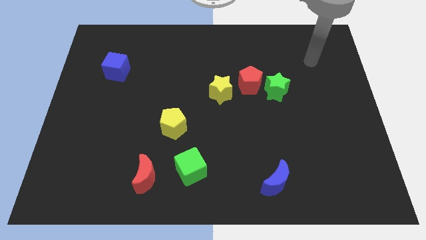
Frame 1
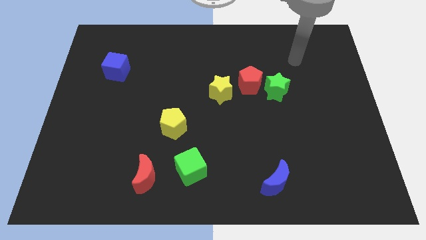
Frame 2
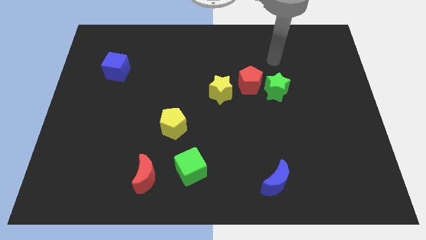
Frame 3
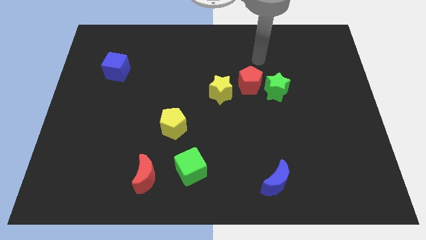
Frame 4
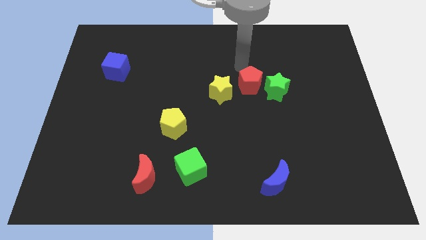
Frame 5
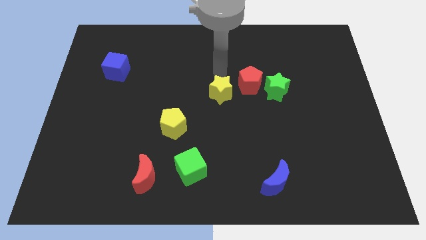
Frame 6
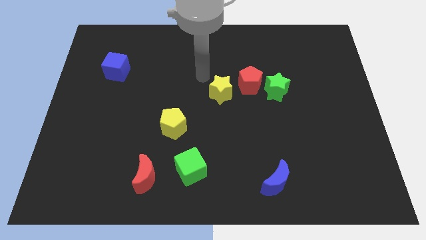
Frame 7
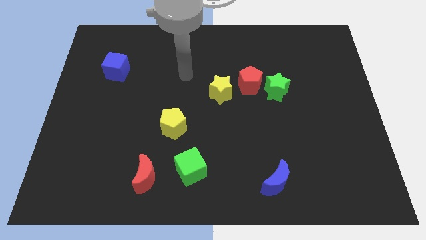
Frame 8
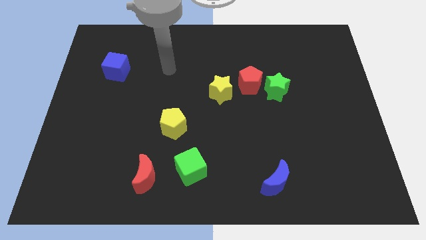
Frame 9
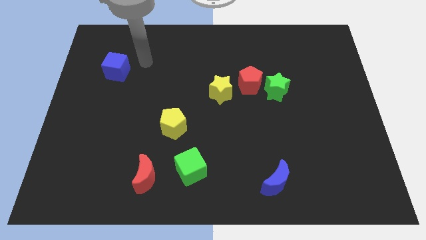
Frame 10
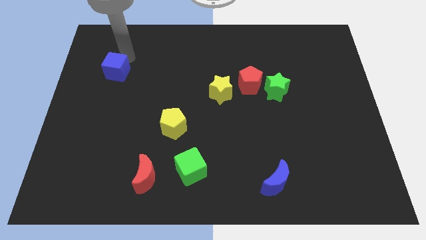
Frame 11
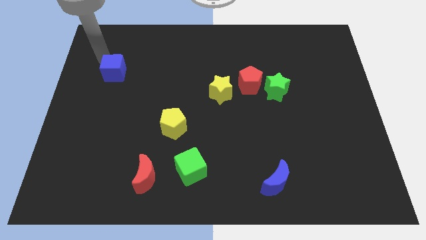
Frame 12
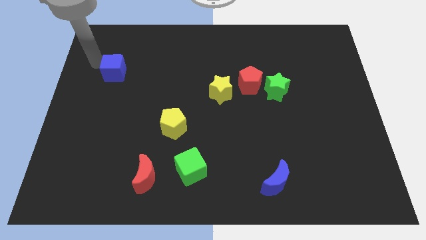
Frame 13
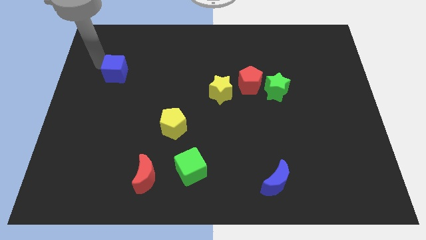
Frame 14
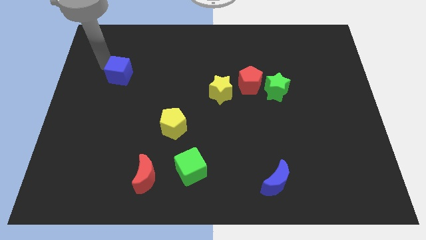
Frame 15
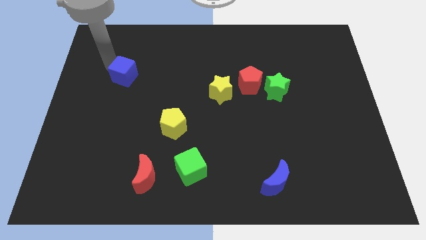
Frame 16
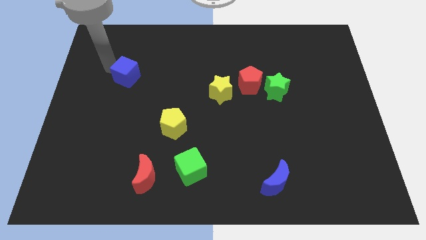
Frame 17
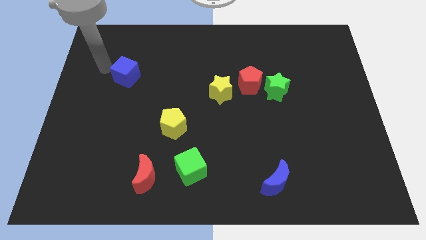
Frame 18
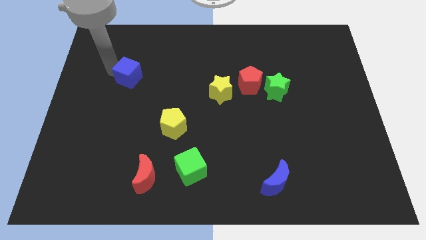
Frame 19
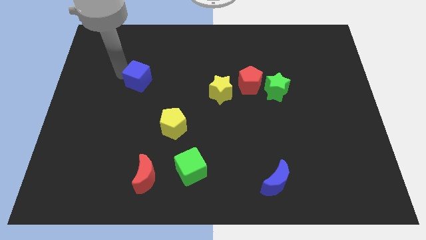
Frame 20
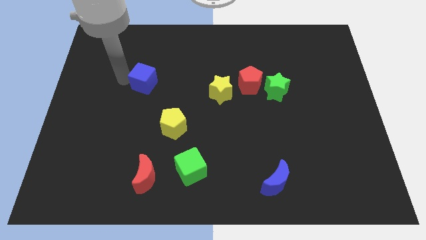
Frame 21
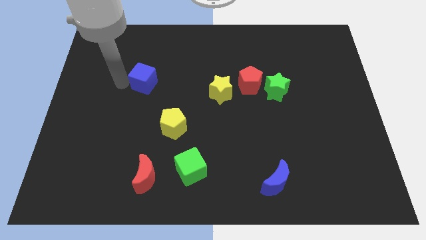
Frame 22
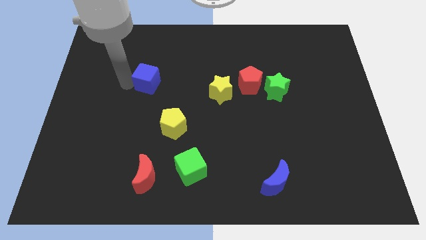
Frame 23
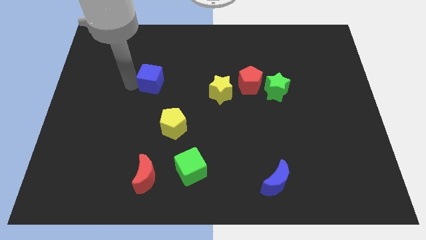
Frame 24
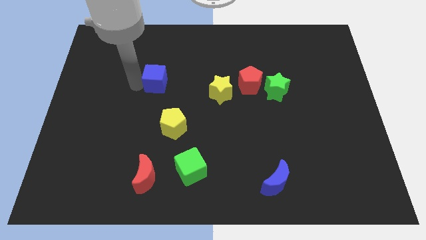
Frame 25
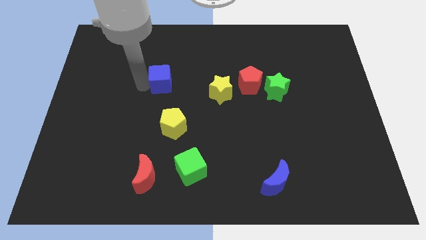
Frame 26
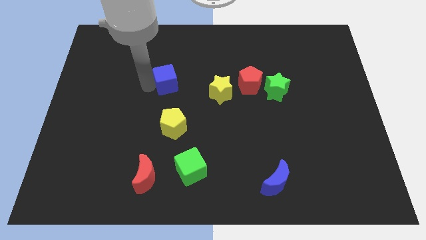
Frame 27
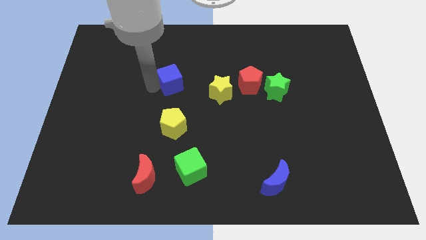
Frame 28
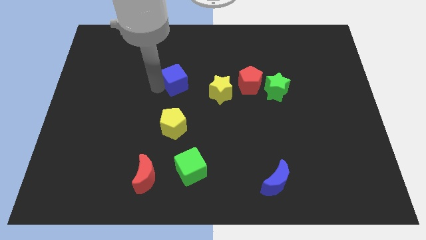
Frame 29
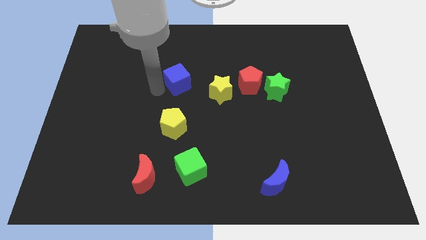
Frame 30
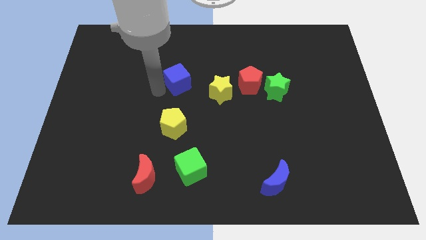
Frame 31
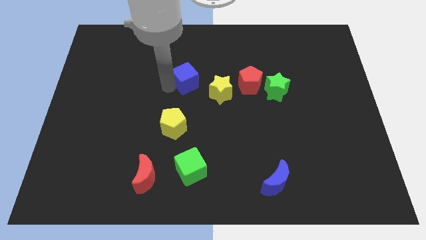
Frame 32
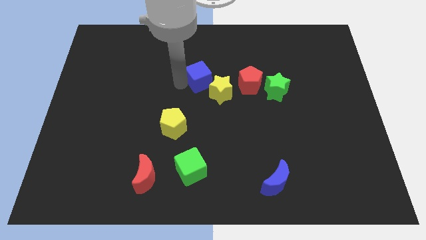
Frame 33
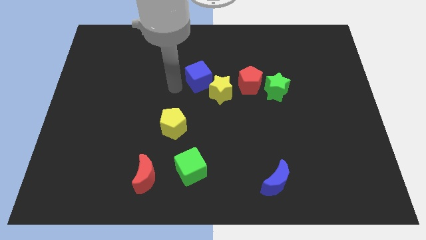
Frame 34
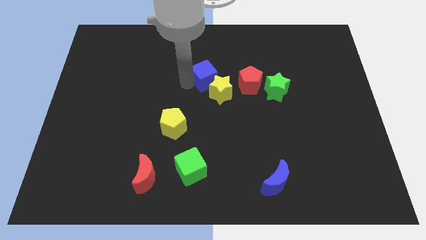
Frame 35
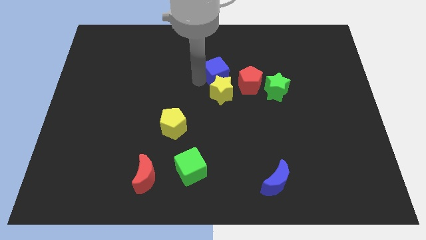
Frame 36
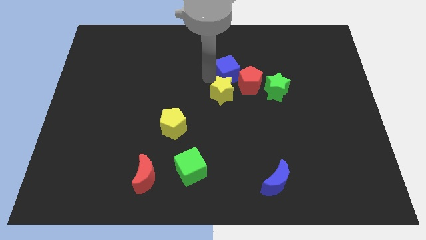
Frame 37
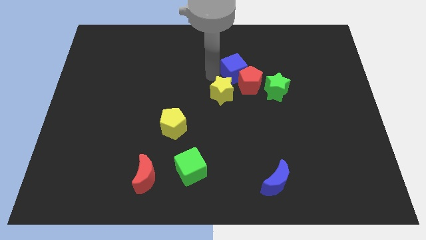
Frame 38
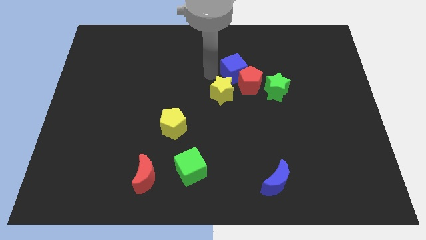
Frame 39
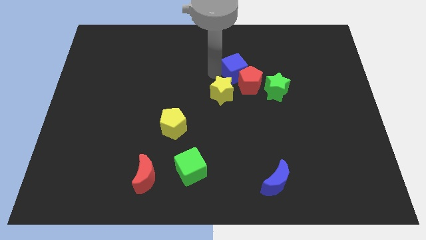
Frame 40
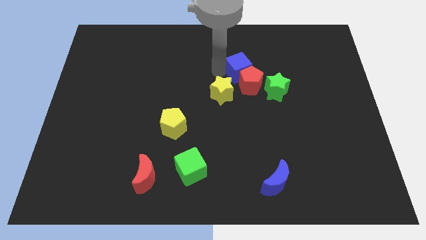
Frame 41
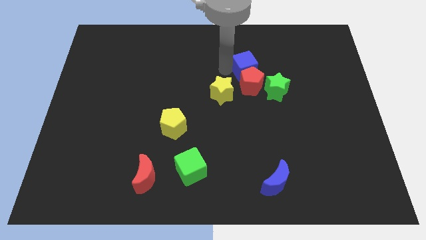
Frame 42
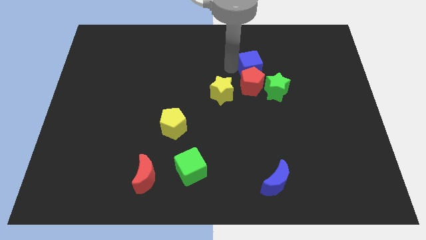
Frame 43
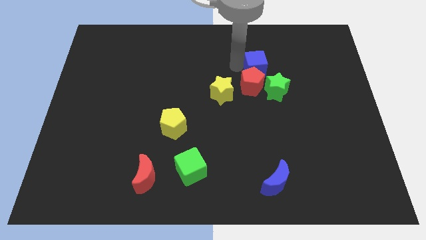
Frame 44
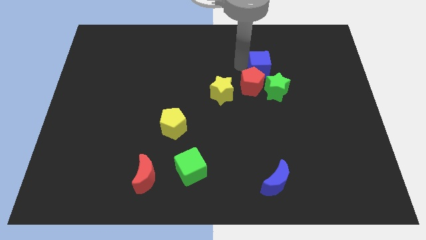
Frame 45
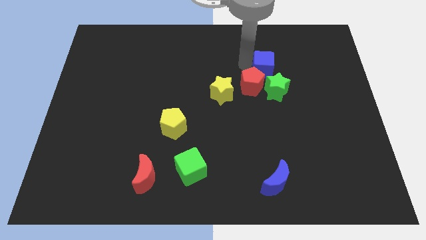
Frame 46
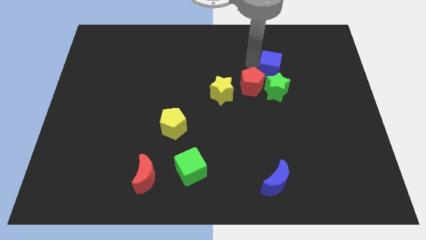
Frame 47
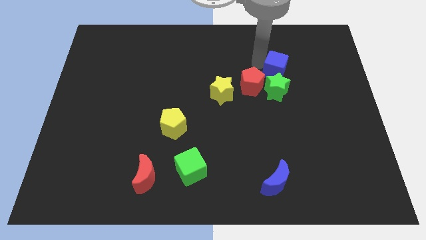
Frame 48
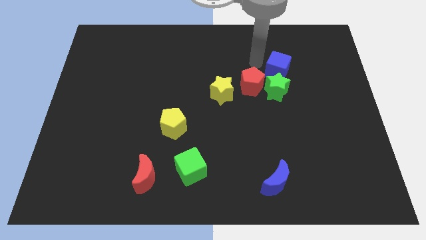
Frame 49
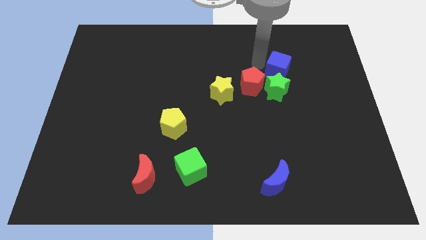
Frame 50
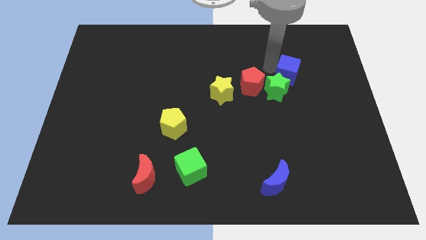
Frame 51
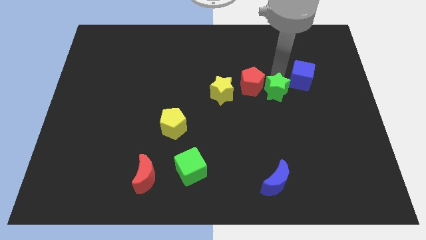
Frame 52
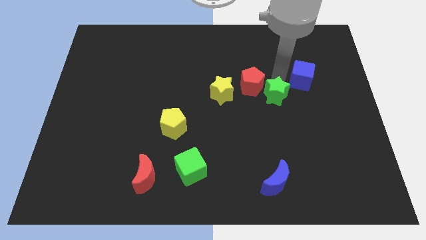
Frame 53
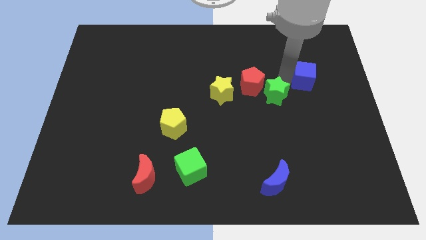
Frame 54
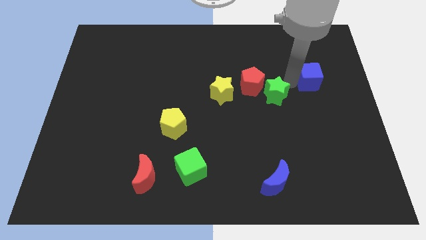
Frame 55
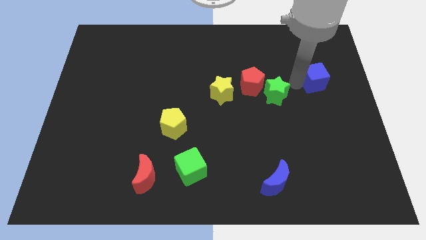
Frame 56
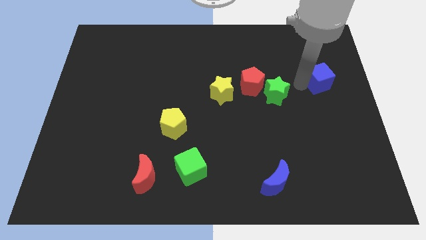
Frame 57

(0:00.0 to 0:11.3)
slide the blue cube to the center right

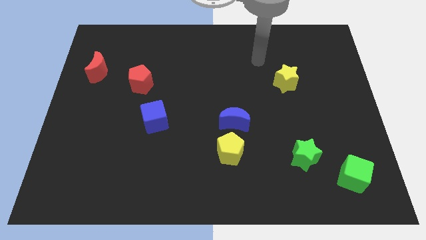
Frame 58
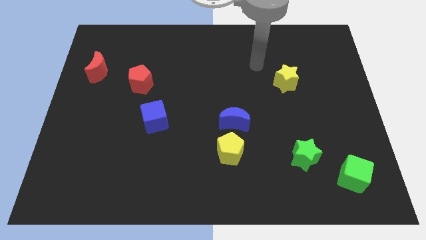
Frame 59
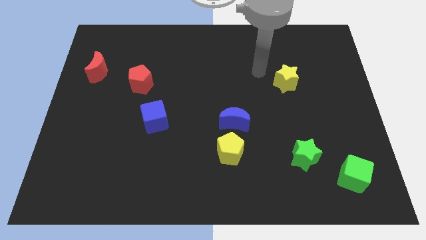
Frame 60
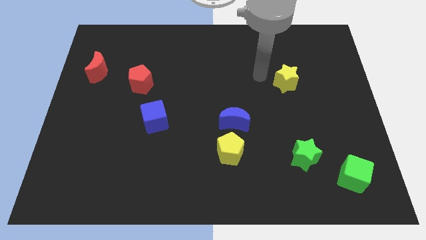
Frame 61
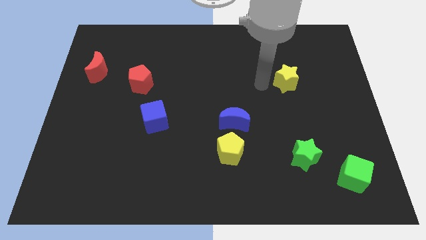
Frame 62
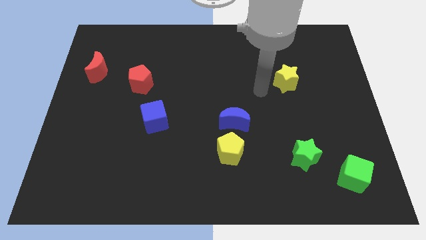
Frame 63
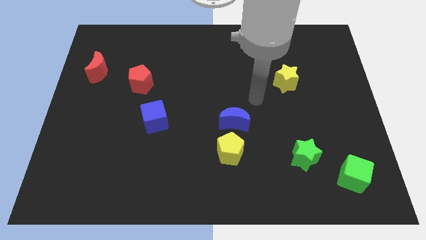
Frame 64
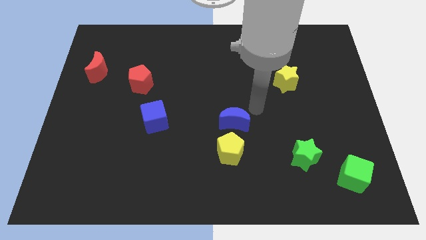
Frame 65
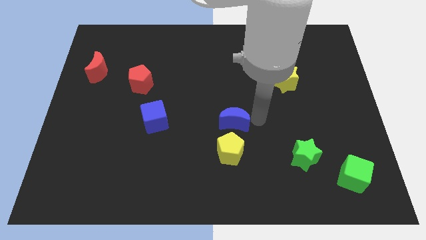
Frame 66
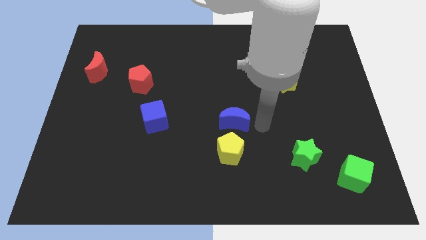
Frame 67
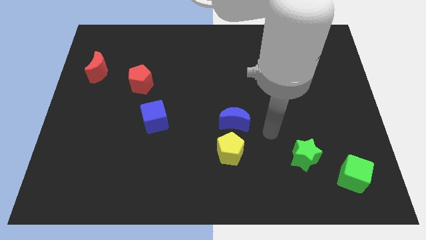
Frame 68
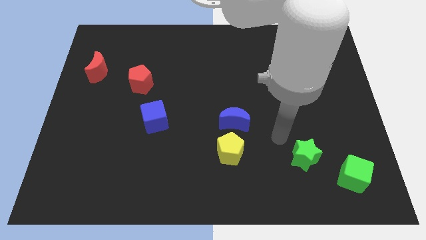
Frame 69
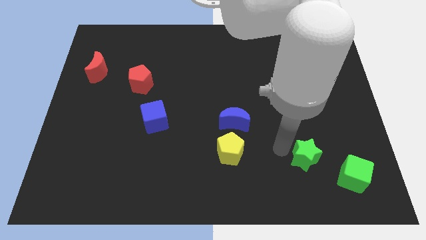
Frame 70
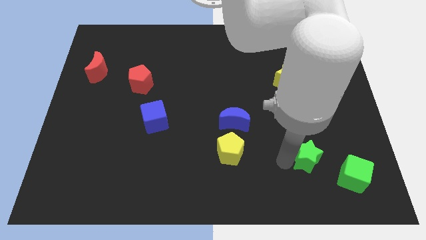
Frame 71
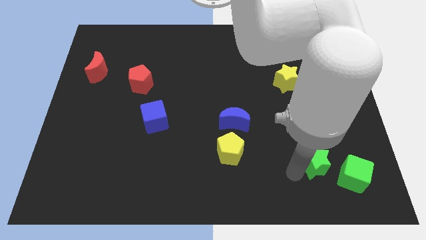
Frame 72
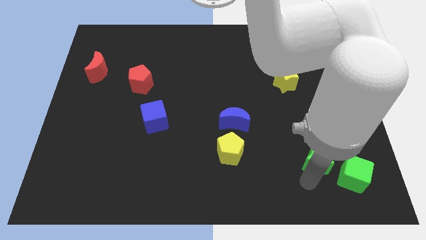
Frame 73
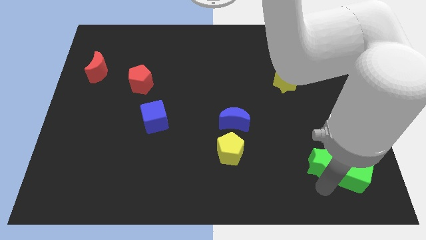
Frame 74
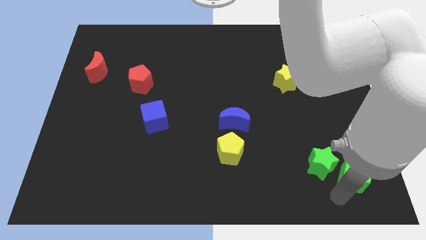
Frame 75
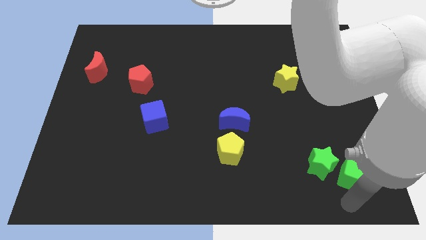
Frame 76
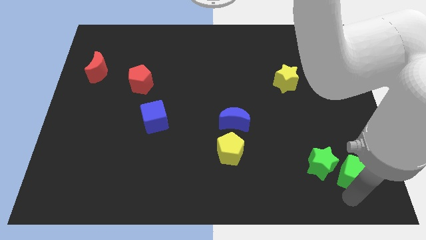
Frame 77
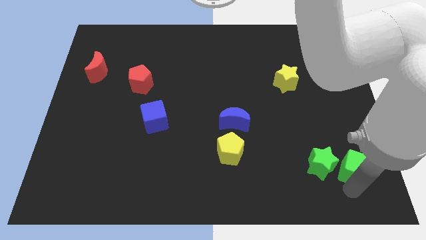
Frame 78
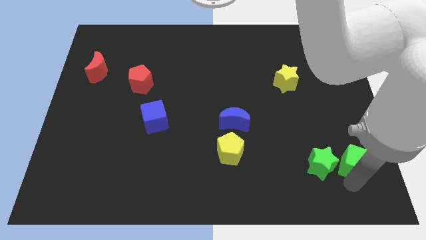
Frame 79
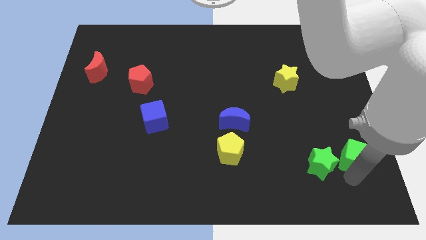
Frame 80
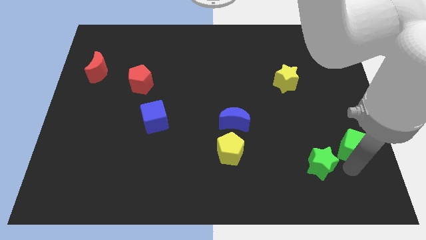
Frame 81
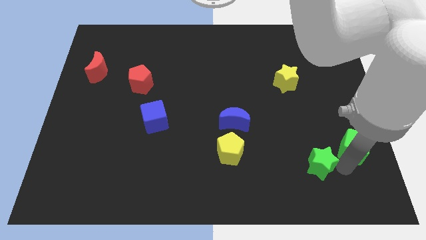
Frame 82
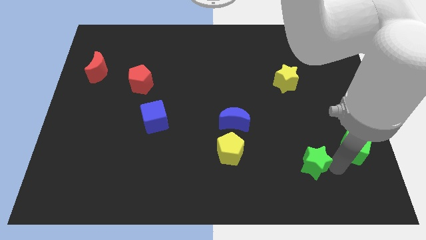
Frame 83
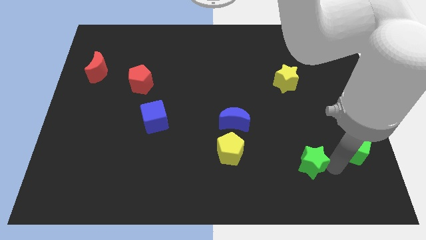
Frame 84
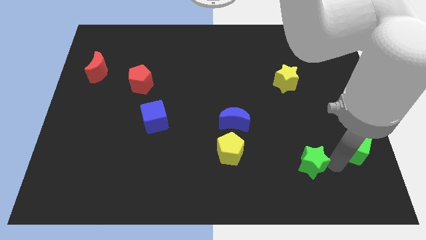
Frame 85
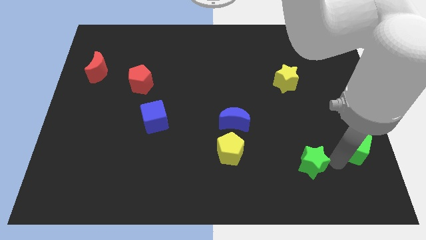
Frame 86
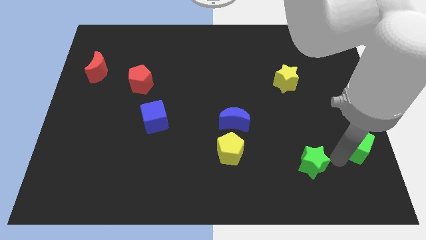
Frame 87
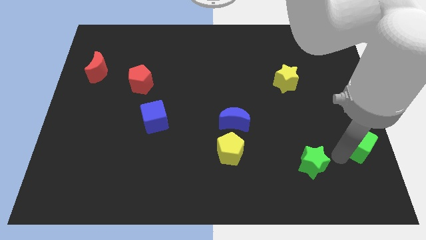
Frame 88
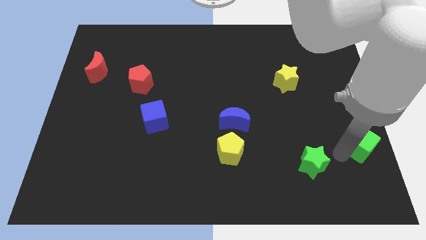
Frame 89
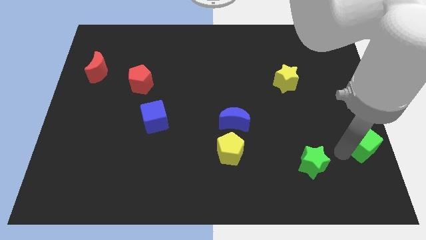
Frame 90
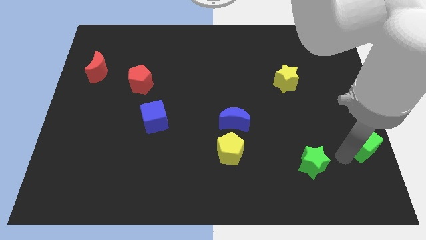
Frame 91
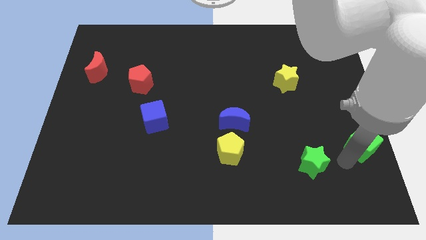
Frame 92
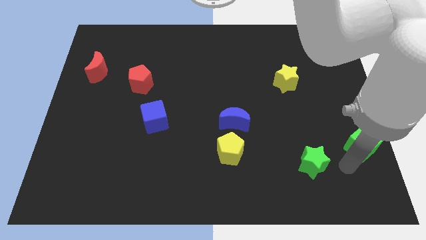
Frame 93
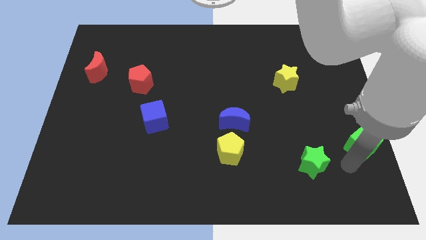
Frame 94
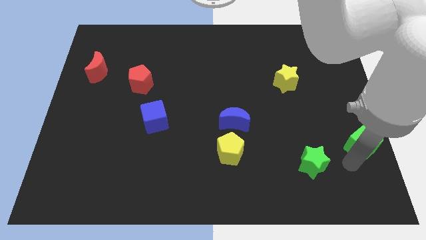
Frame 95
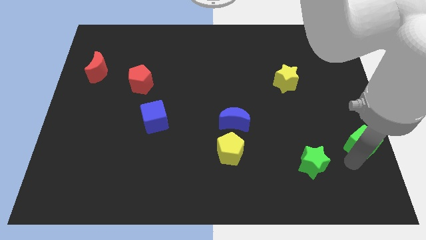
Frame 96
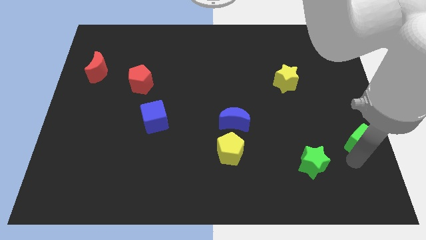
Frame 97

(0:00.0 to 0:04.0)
put the green cube to the right side of the board
